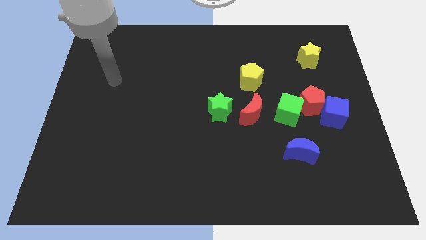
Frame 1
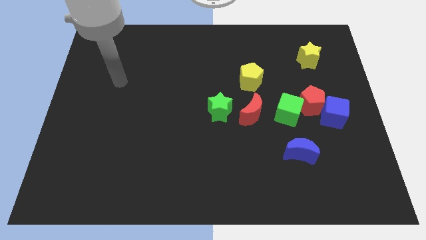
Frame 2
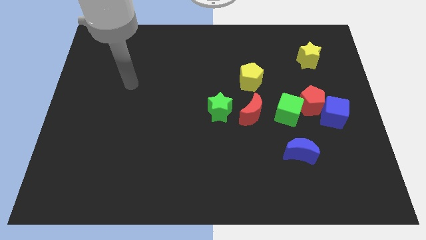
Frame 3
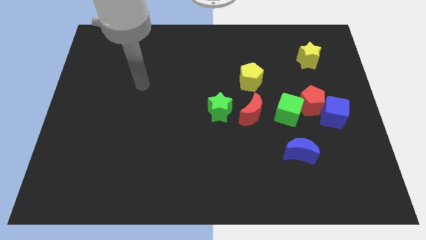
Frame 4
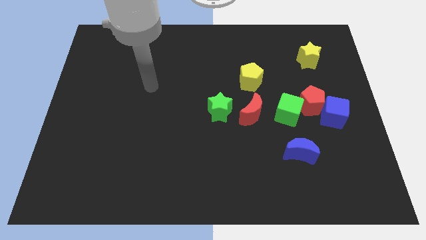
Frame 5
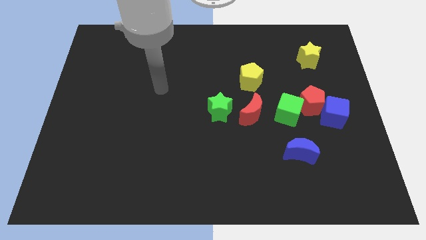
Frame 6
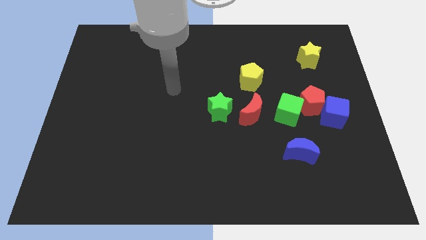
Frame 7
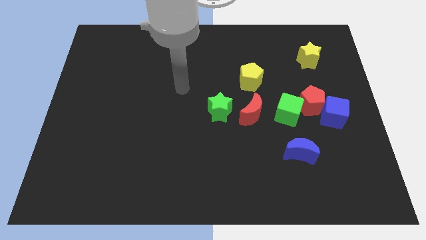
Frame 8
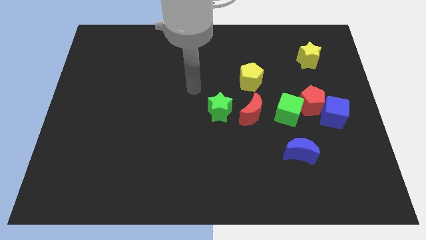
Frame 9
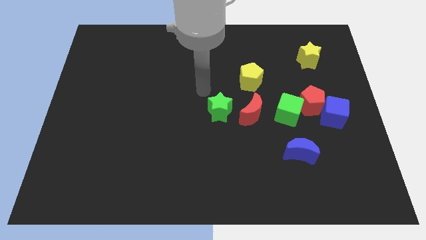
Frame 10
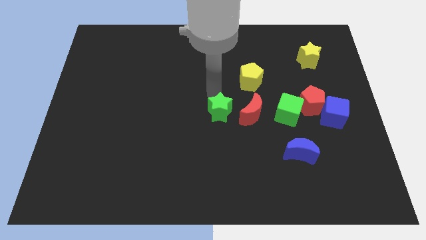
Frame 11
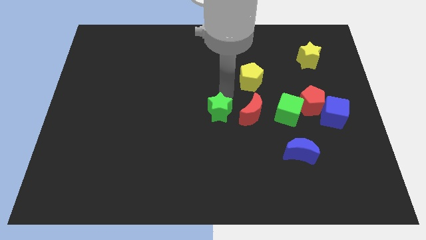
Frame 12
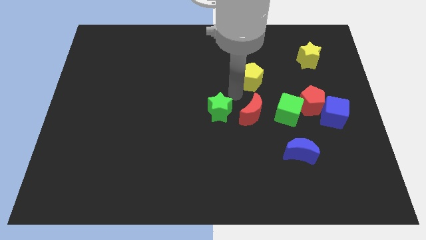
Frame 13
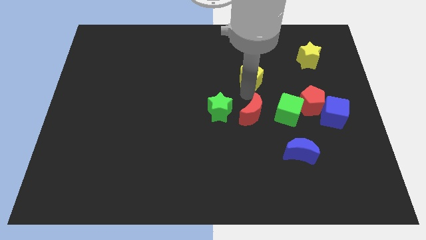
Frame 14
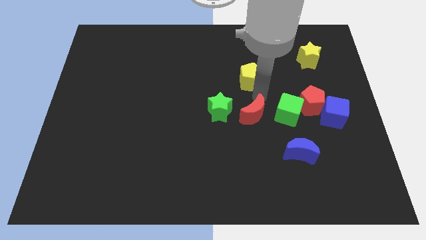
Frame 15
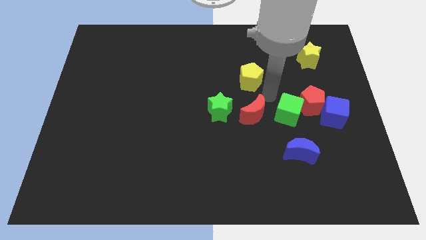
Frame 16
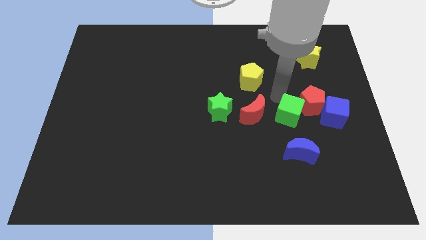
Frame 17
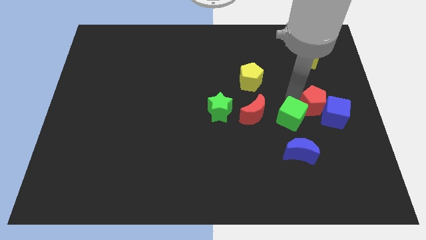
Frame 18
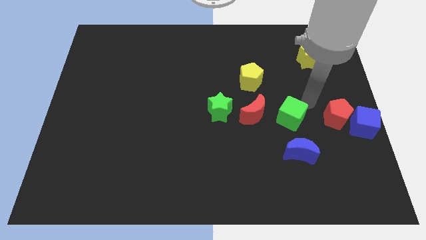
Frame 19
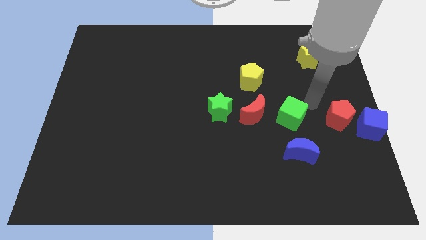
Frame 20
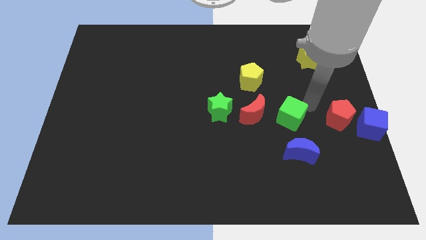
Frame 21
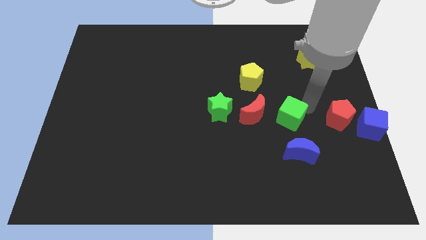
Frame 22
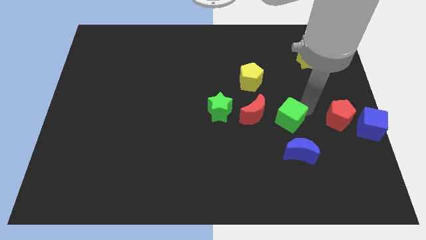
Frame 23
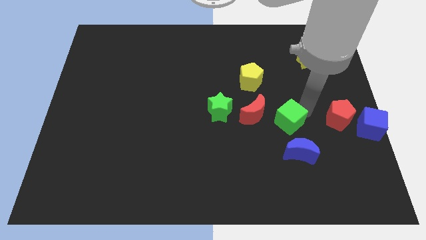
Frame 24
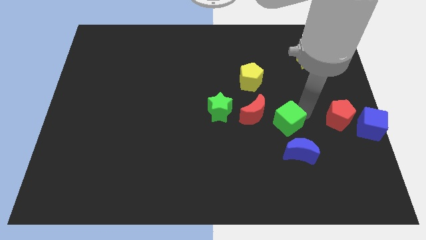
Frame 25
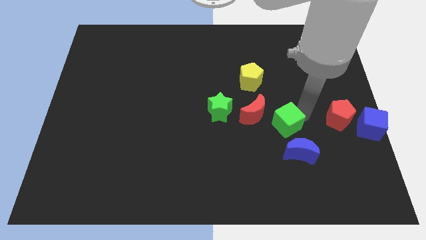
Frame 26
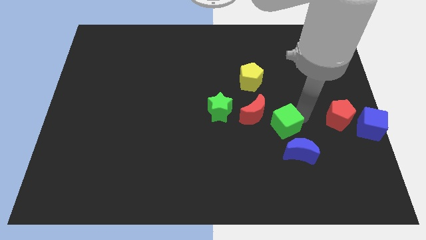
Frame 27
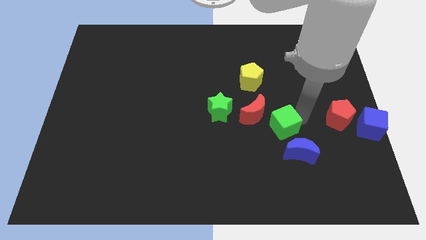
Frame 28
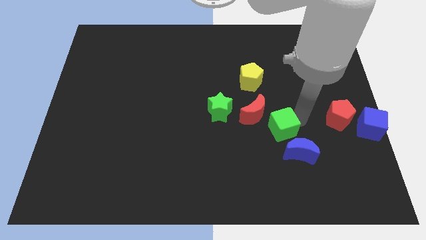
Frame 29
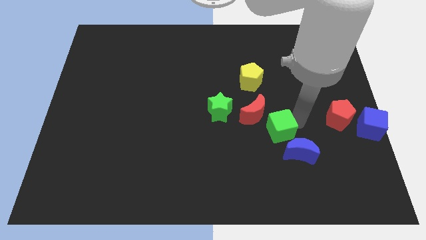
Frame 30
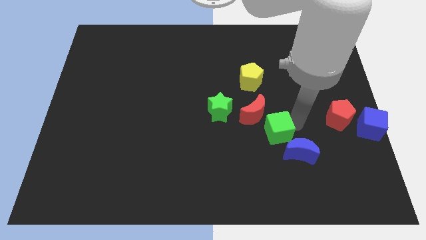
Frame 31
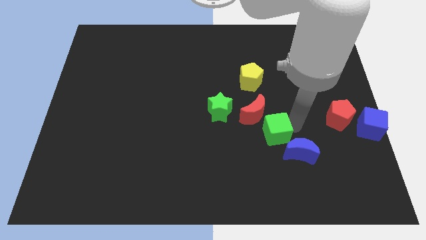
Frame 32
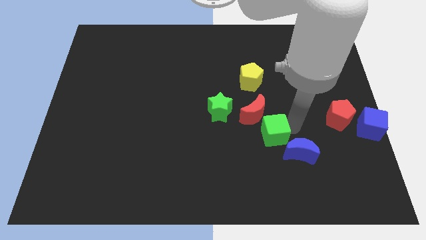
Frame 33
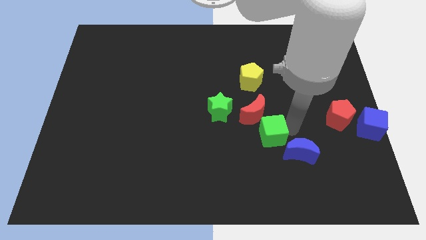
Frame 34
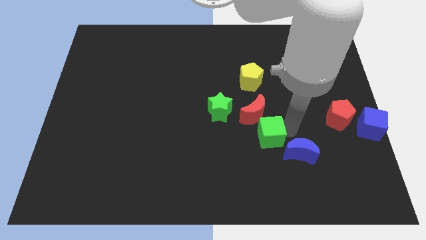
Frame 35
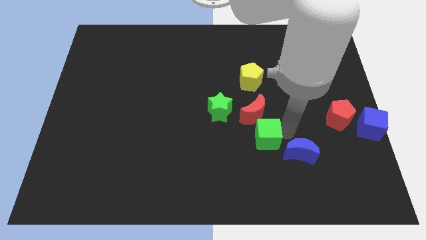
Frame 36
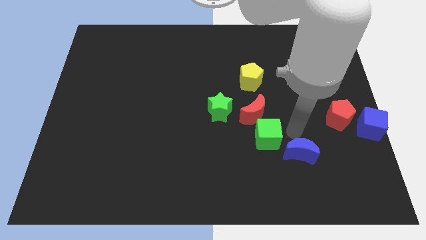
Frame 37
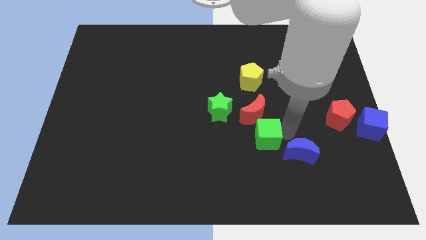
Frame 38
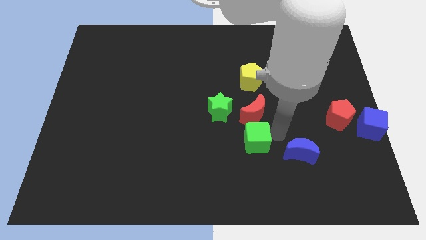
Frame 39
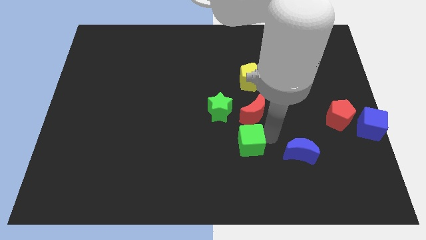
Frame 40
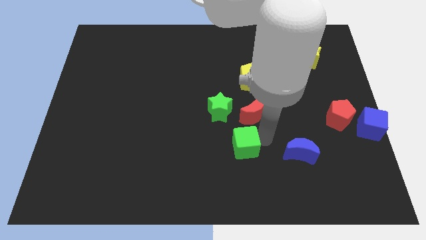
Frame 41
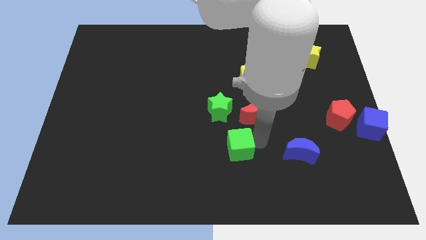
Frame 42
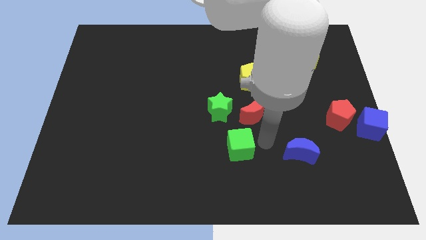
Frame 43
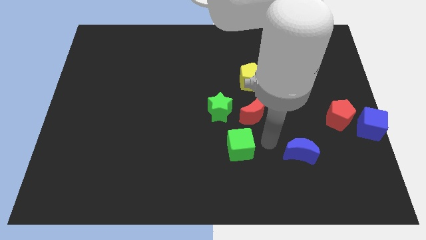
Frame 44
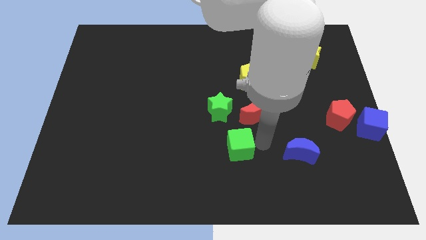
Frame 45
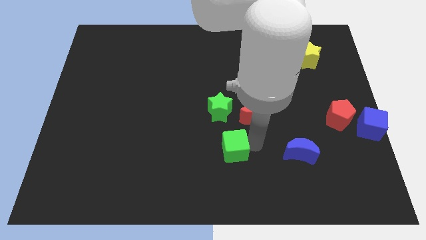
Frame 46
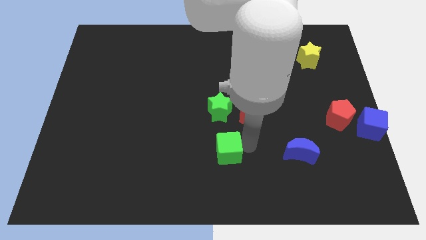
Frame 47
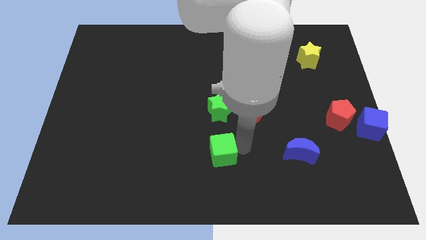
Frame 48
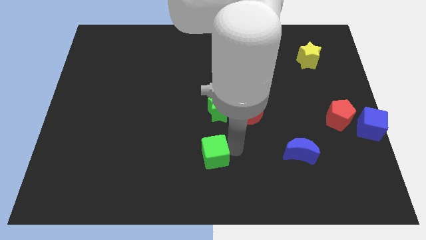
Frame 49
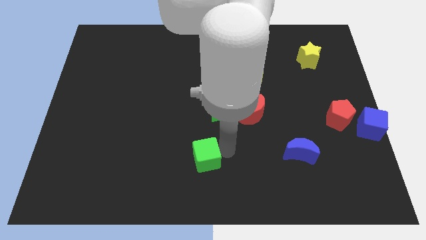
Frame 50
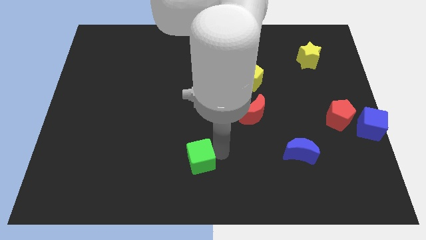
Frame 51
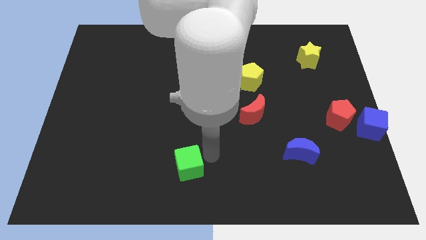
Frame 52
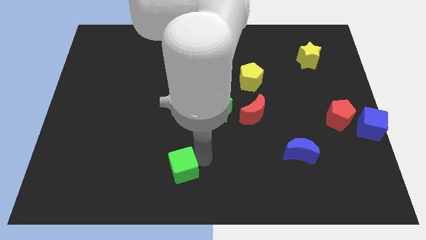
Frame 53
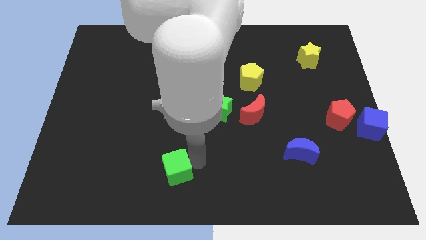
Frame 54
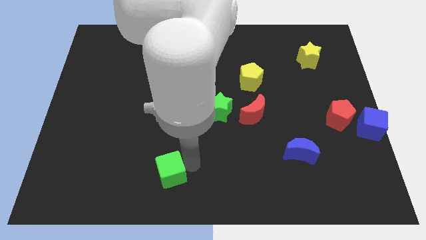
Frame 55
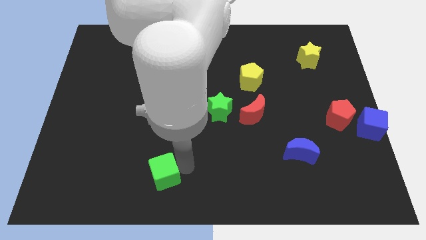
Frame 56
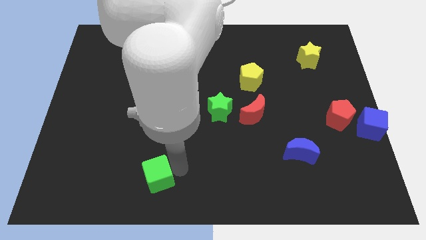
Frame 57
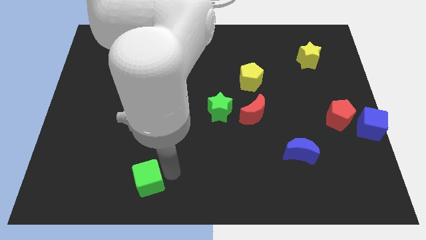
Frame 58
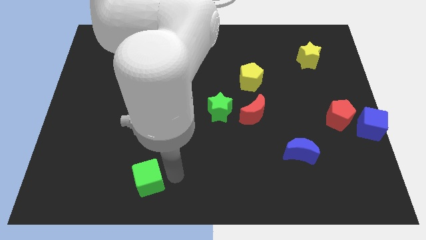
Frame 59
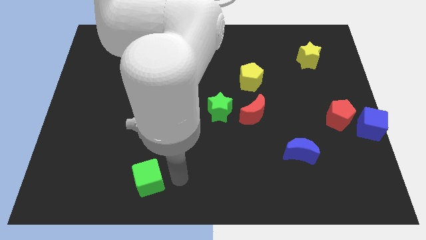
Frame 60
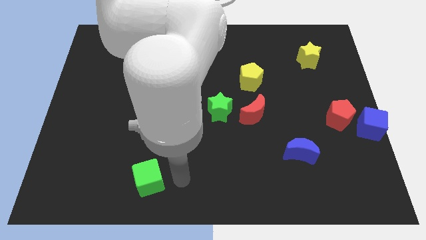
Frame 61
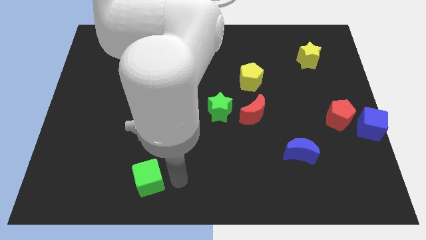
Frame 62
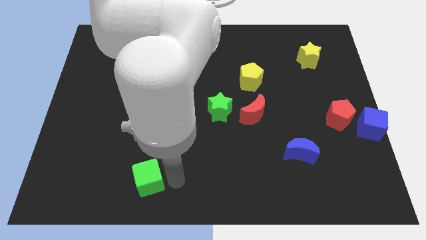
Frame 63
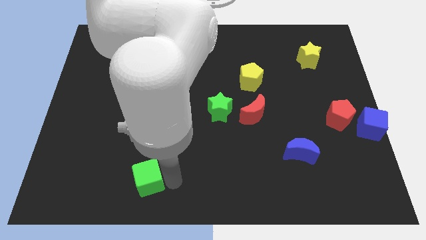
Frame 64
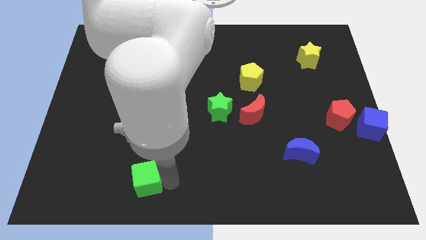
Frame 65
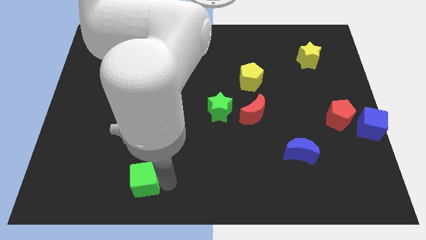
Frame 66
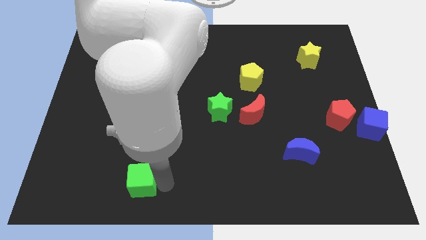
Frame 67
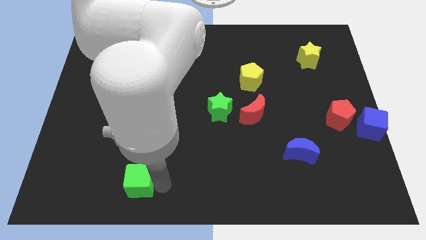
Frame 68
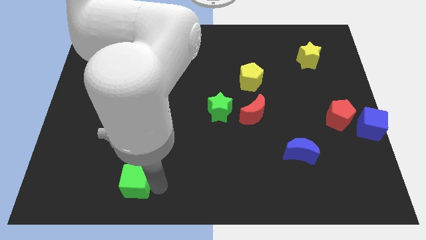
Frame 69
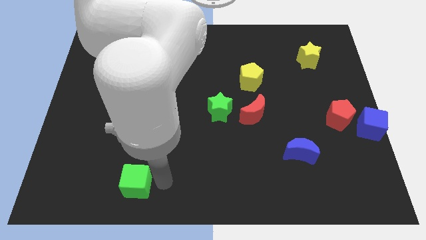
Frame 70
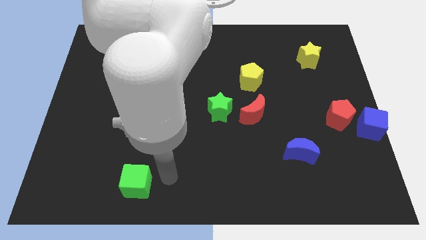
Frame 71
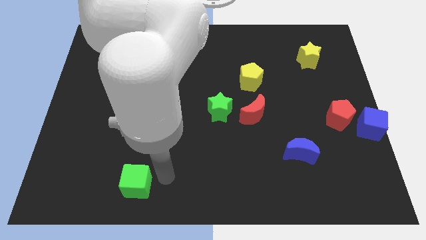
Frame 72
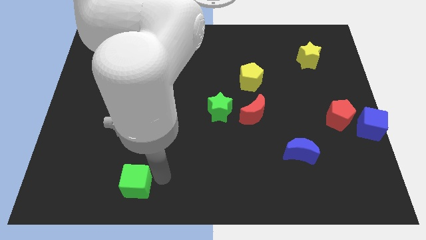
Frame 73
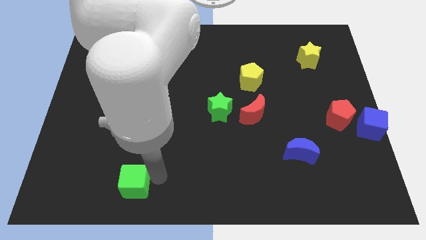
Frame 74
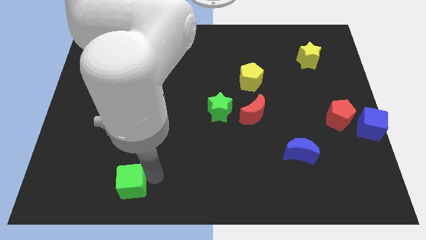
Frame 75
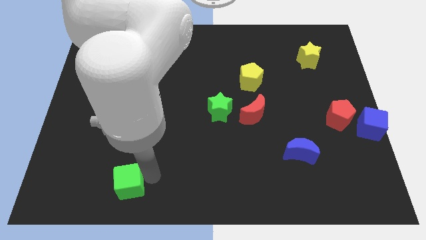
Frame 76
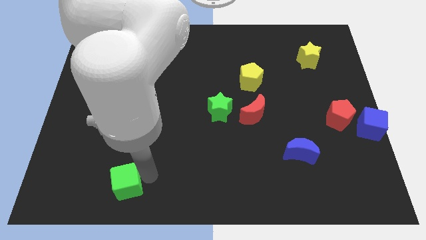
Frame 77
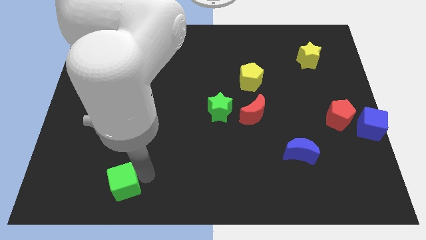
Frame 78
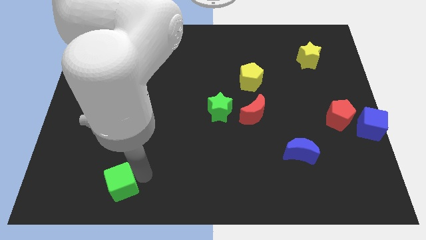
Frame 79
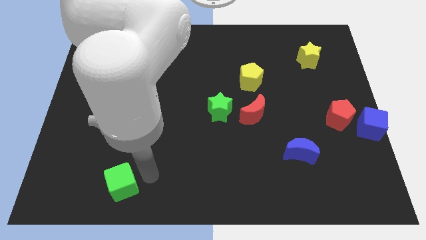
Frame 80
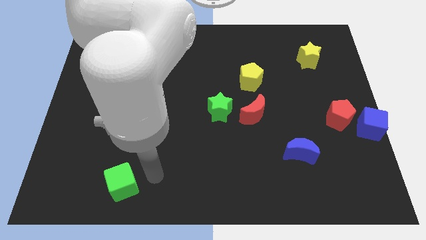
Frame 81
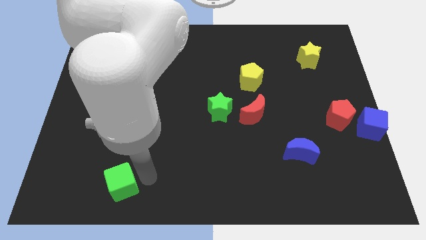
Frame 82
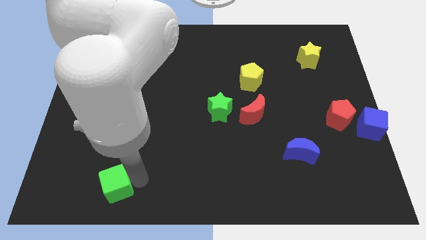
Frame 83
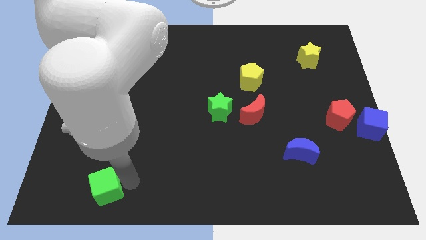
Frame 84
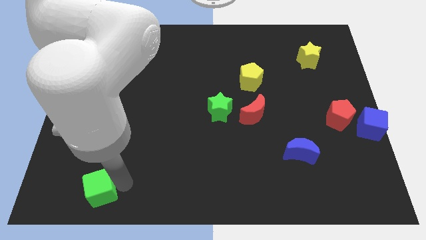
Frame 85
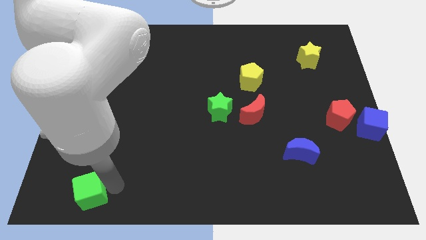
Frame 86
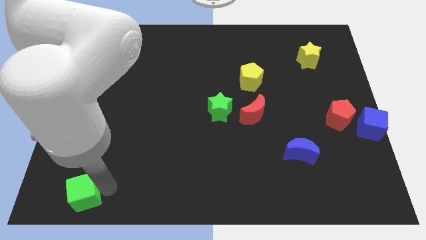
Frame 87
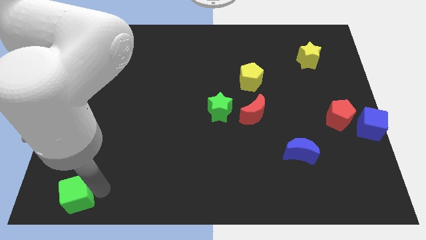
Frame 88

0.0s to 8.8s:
put the green cube to the lower left corner
